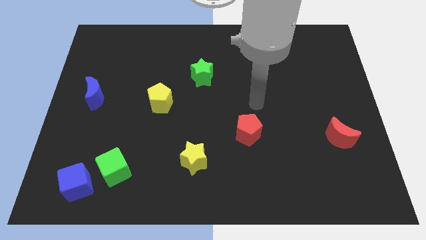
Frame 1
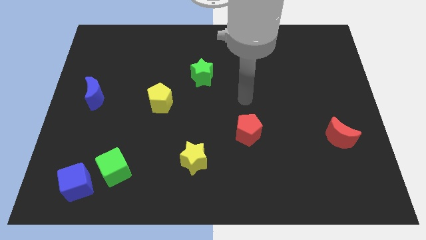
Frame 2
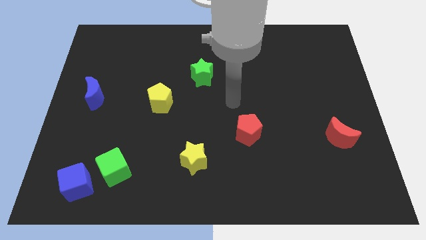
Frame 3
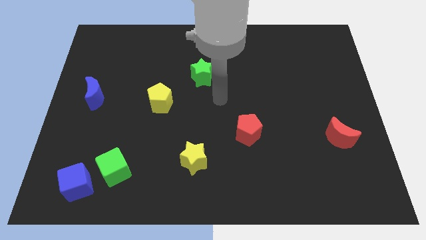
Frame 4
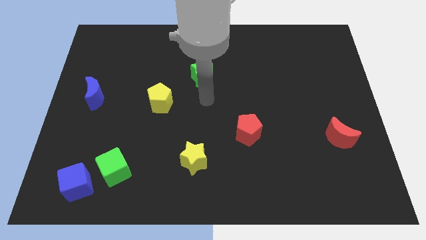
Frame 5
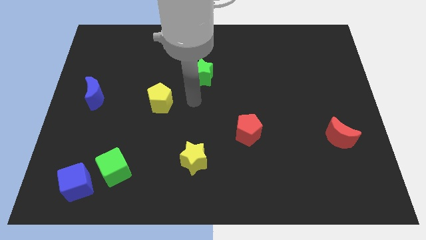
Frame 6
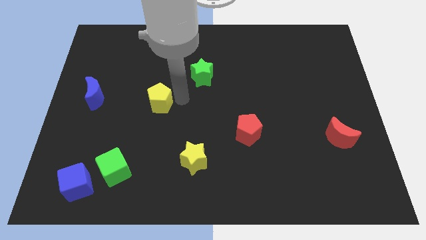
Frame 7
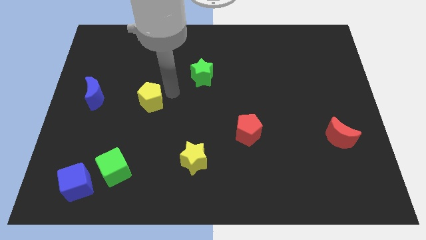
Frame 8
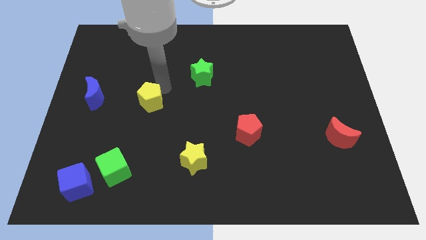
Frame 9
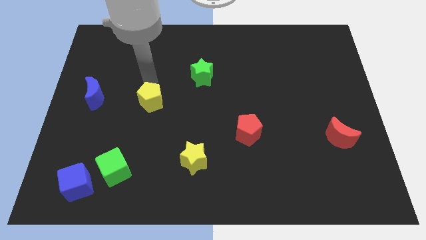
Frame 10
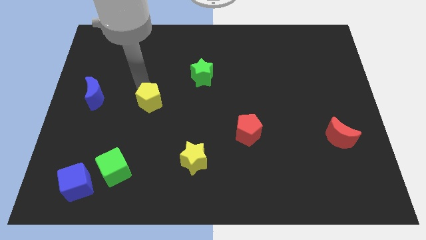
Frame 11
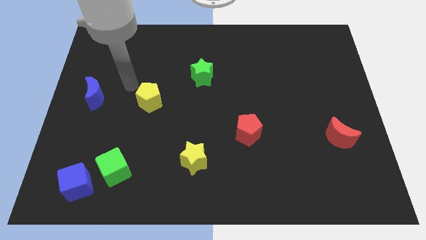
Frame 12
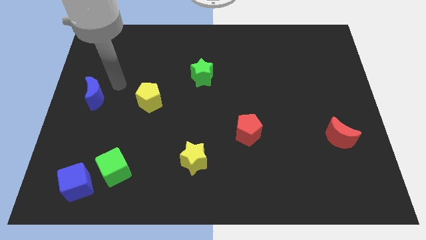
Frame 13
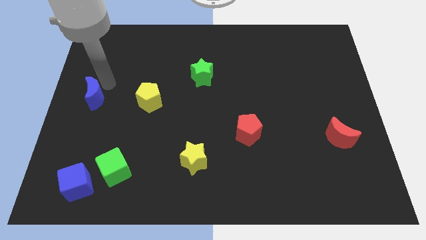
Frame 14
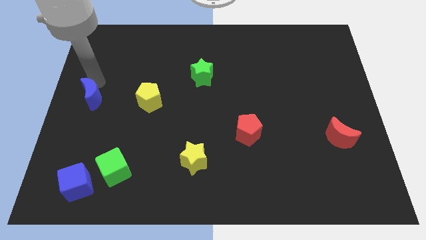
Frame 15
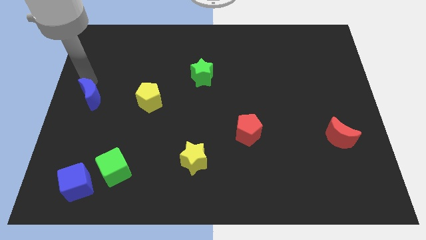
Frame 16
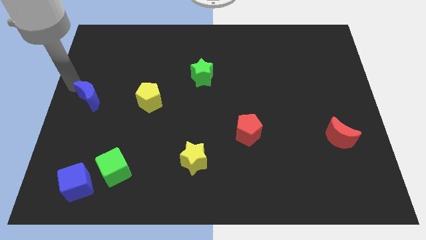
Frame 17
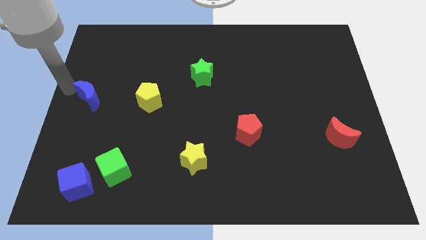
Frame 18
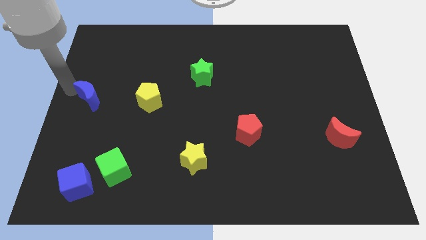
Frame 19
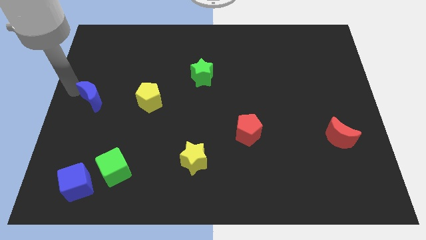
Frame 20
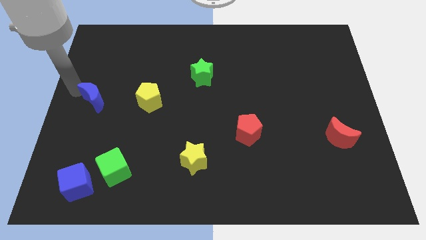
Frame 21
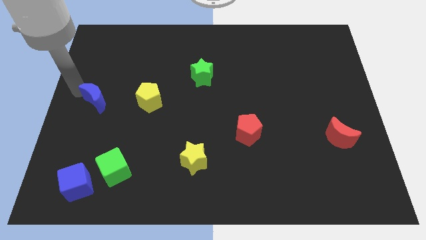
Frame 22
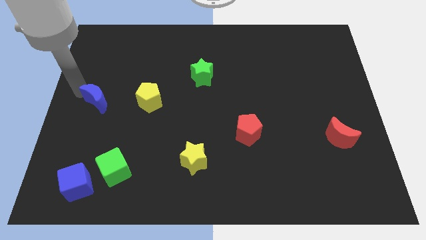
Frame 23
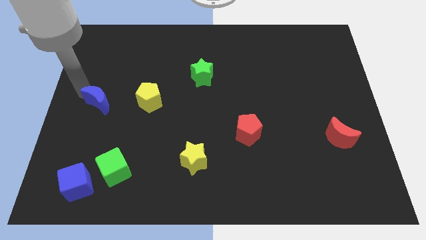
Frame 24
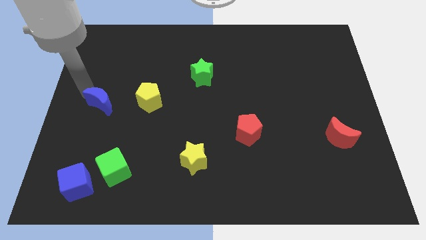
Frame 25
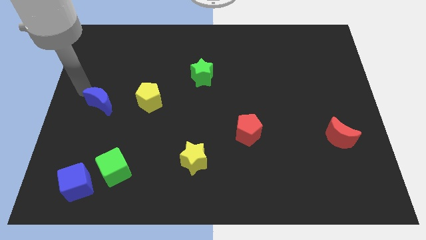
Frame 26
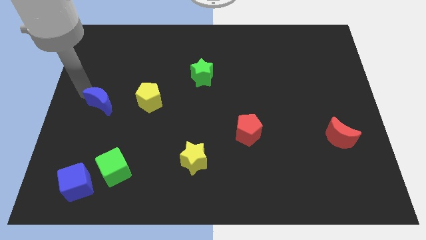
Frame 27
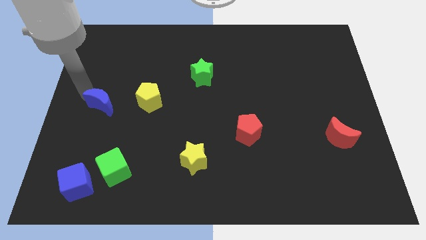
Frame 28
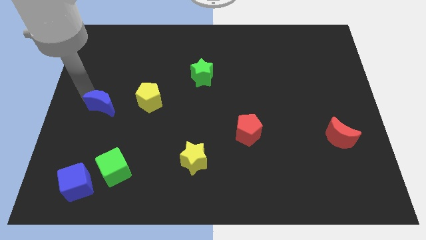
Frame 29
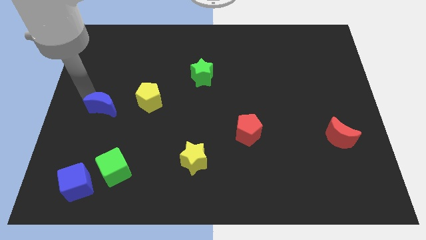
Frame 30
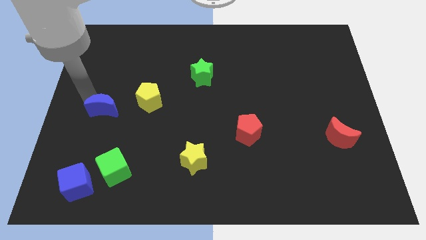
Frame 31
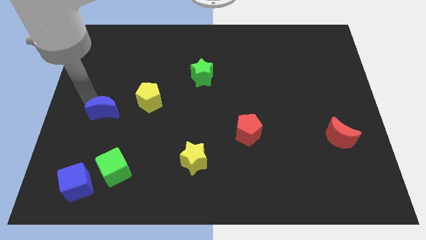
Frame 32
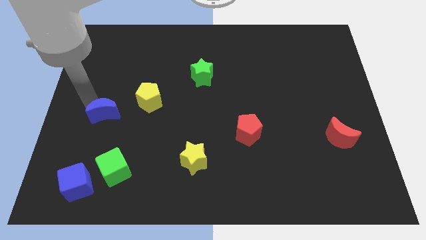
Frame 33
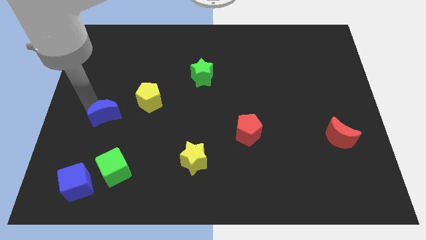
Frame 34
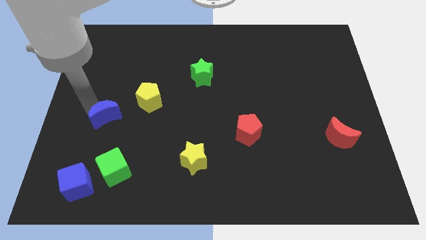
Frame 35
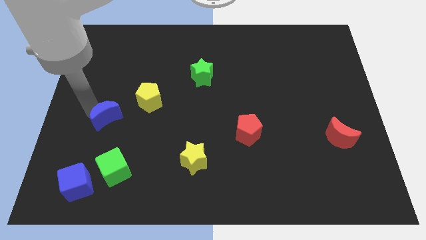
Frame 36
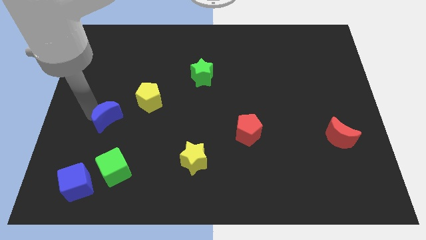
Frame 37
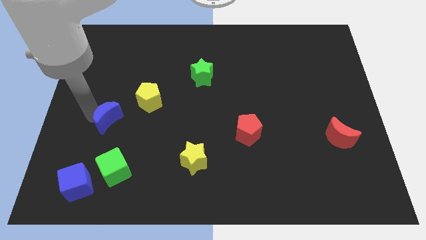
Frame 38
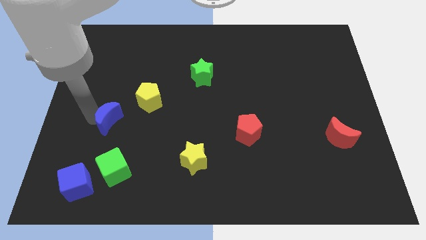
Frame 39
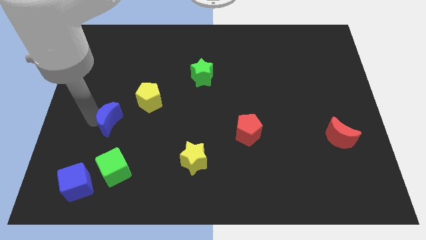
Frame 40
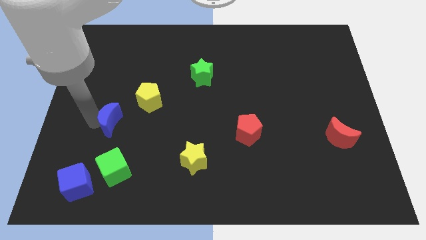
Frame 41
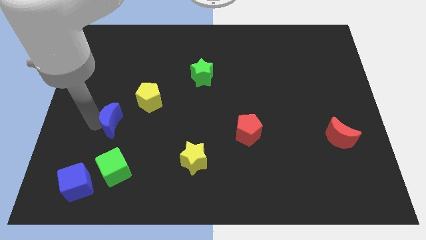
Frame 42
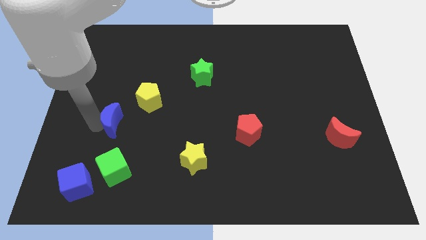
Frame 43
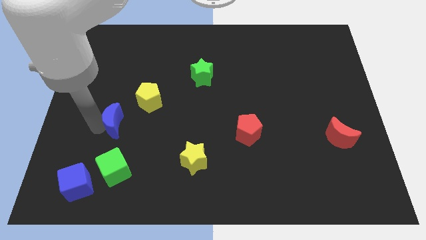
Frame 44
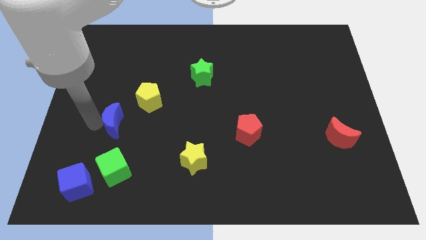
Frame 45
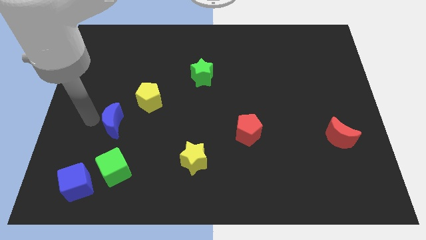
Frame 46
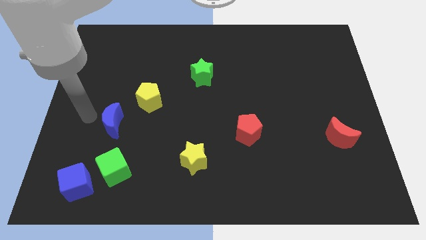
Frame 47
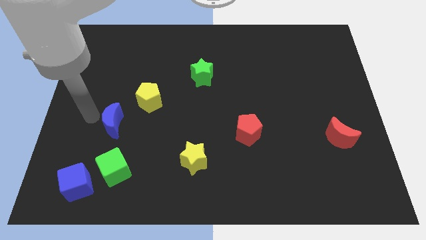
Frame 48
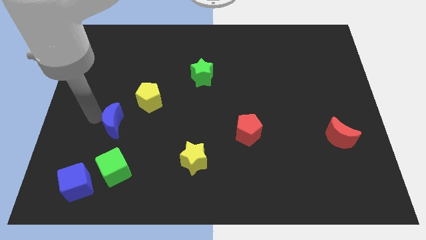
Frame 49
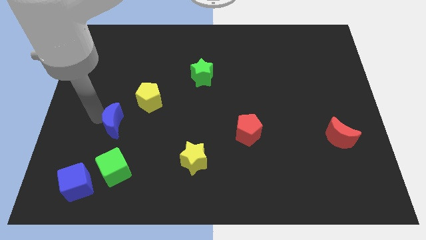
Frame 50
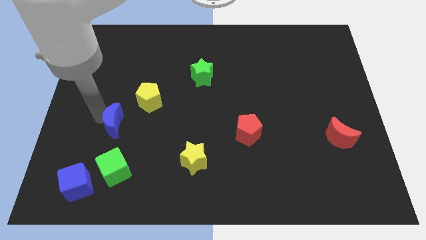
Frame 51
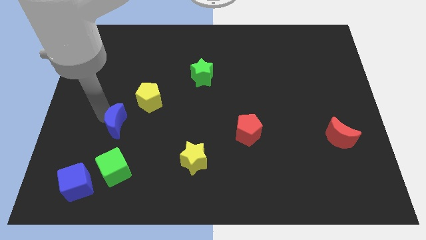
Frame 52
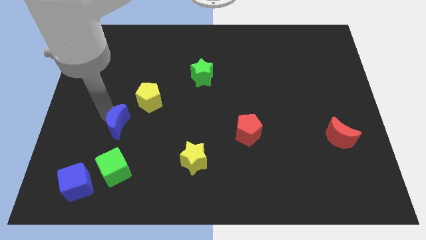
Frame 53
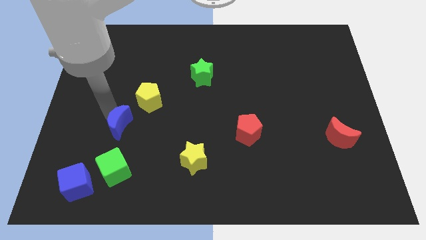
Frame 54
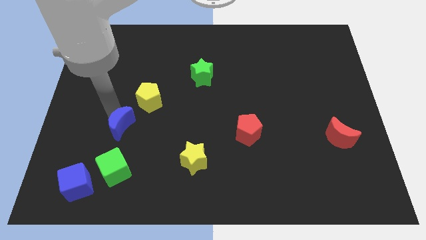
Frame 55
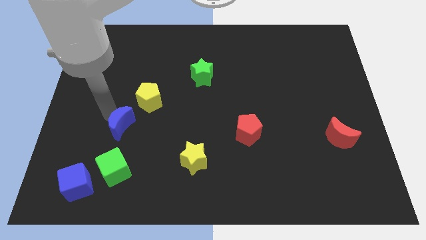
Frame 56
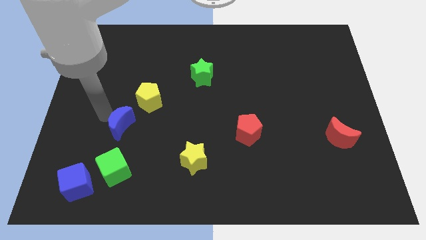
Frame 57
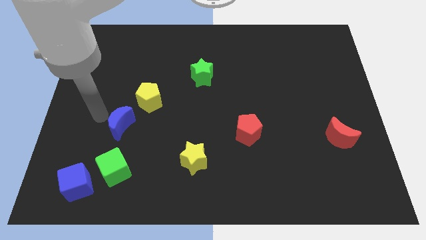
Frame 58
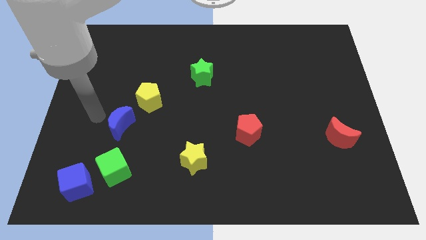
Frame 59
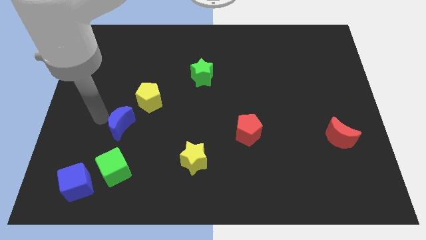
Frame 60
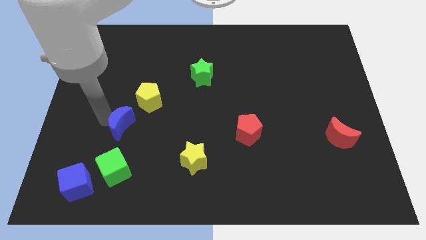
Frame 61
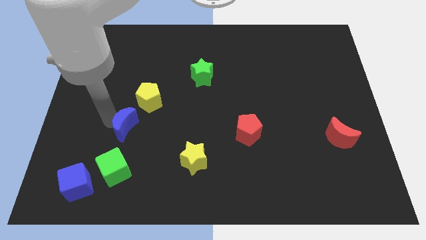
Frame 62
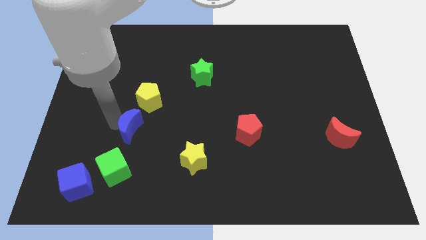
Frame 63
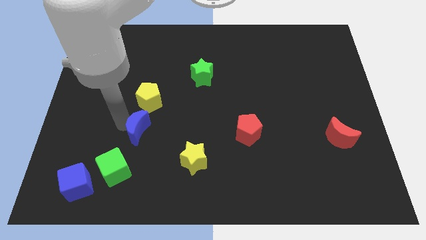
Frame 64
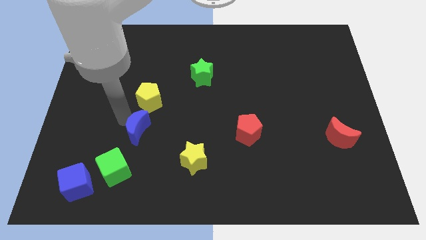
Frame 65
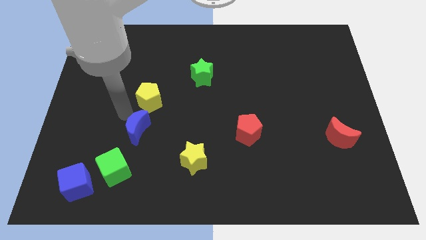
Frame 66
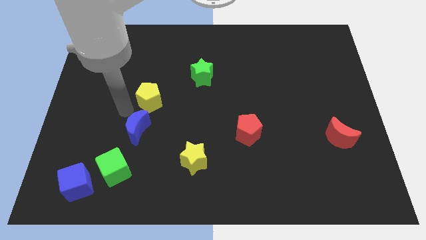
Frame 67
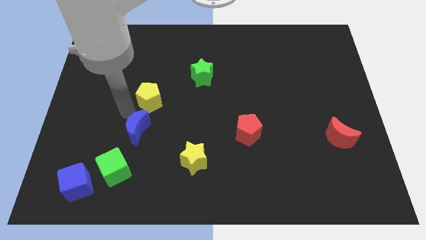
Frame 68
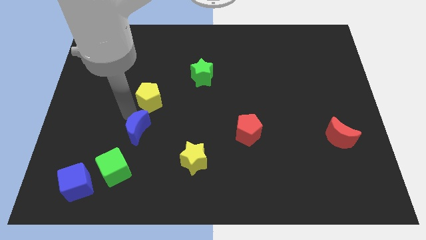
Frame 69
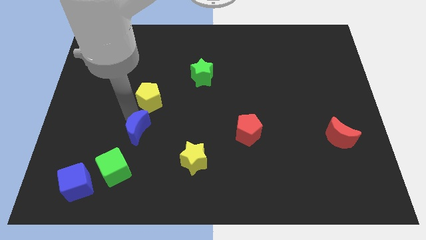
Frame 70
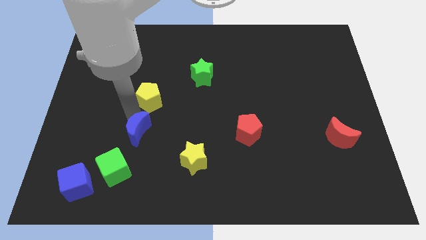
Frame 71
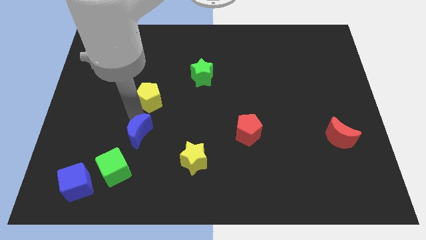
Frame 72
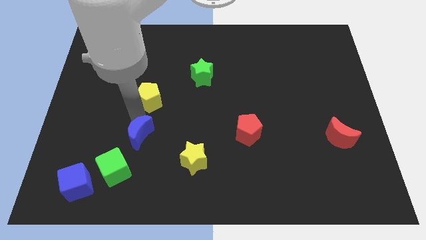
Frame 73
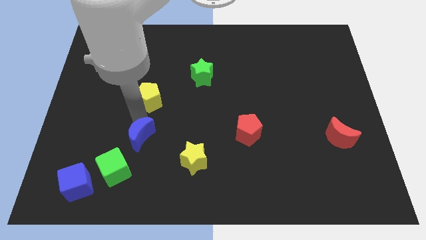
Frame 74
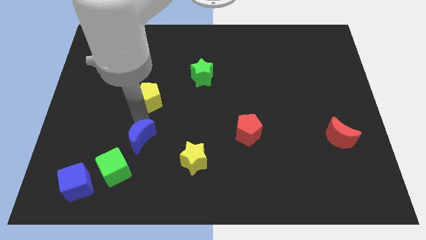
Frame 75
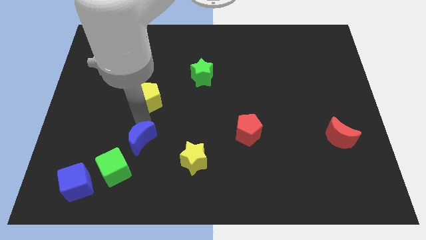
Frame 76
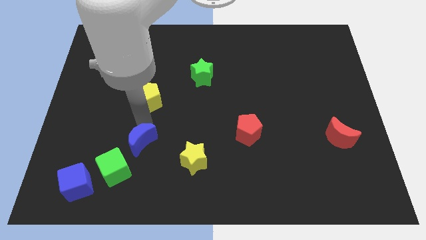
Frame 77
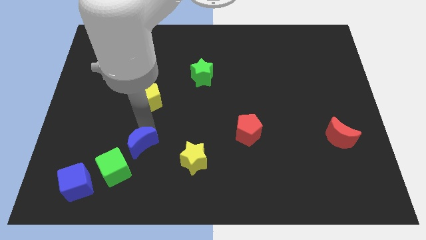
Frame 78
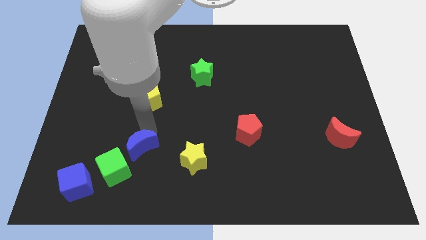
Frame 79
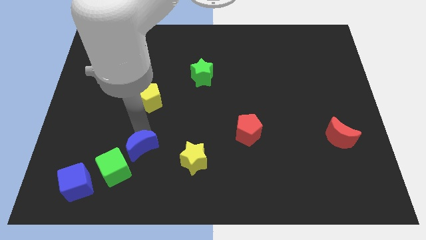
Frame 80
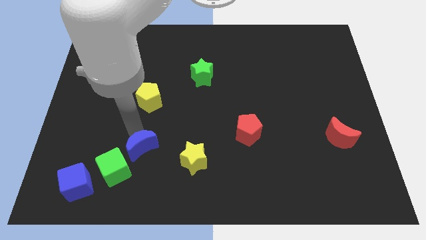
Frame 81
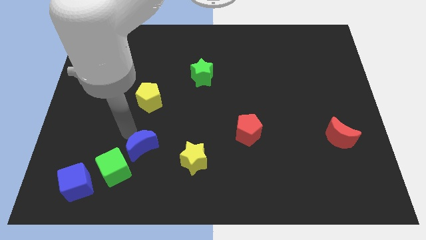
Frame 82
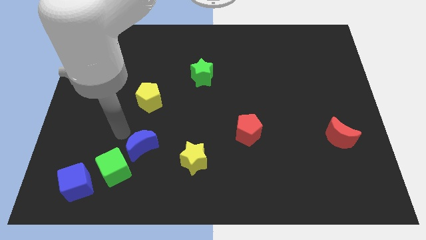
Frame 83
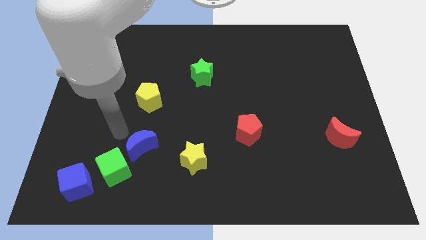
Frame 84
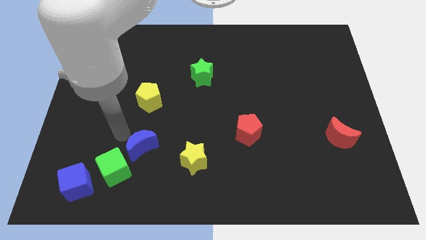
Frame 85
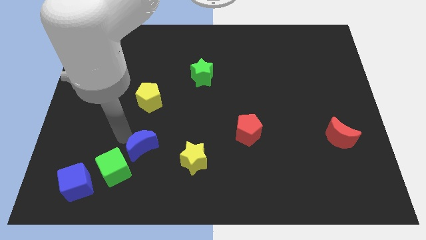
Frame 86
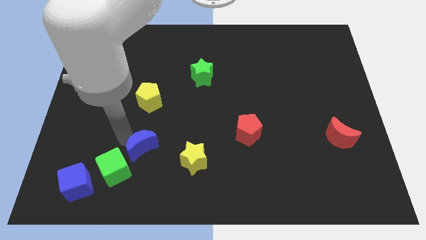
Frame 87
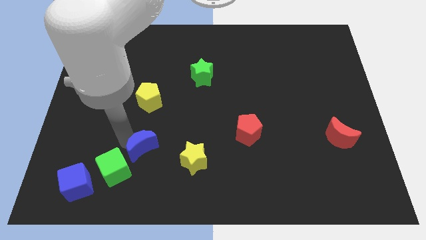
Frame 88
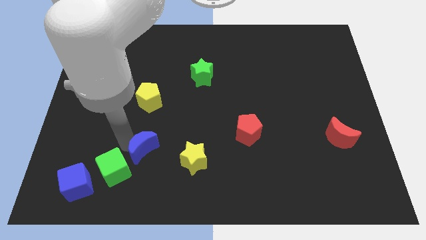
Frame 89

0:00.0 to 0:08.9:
slide the blue moon diagonally down and to the right
